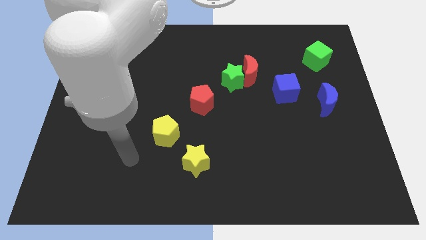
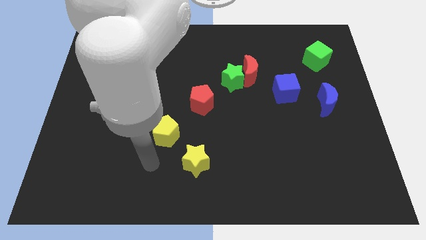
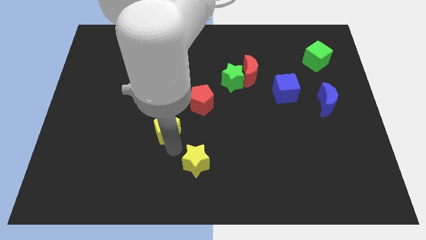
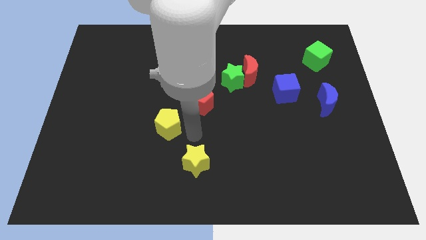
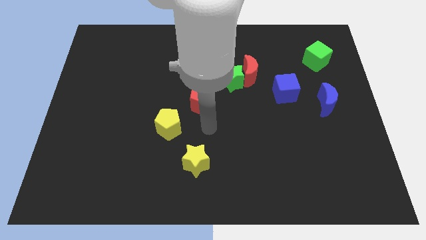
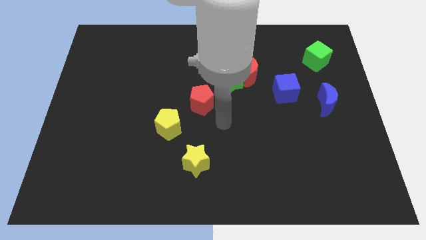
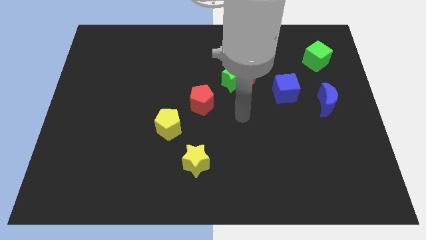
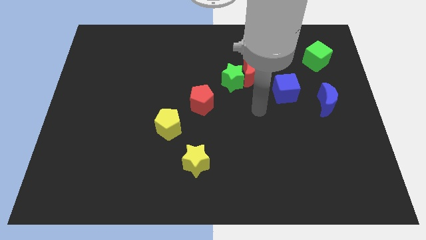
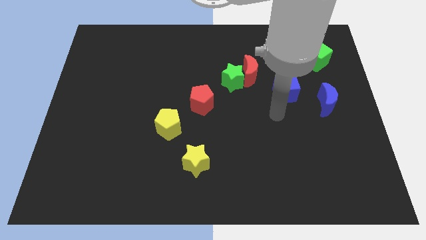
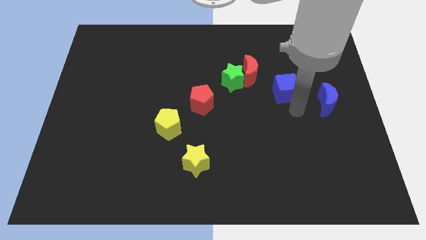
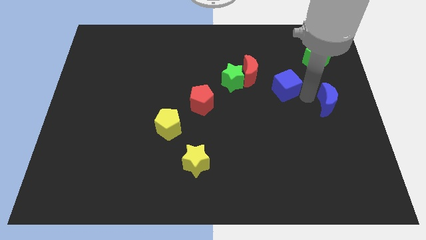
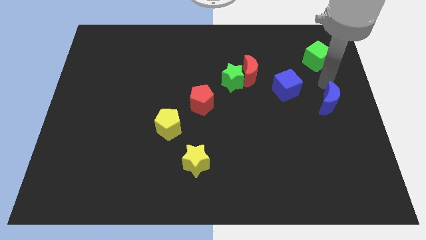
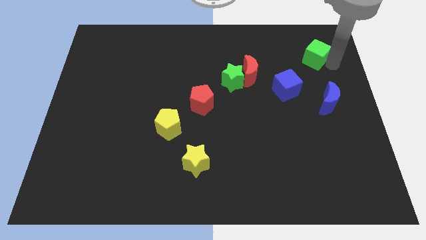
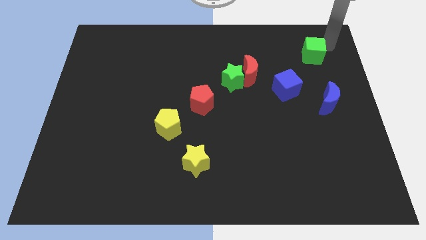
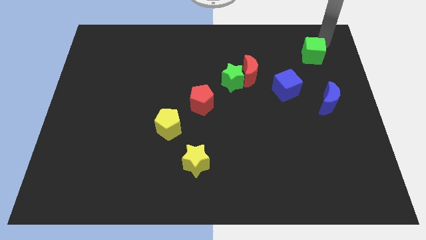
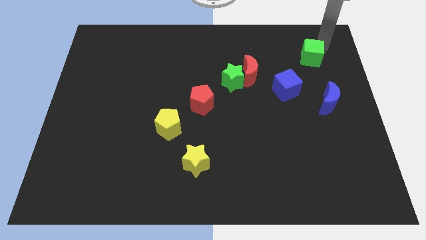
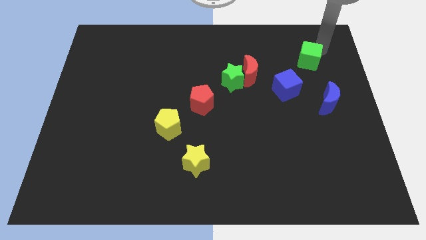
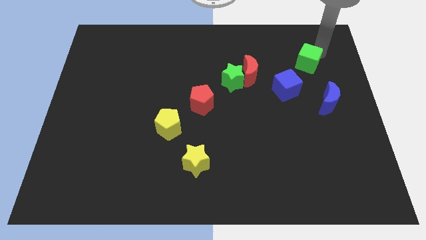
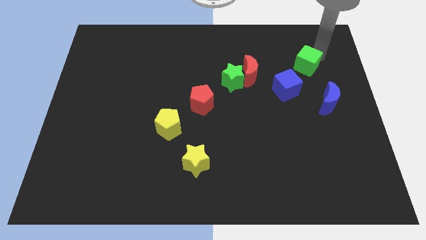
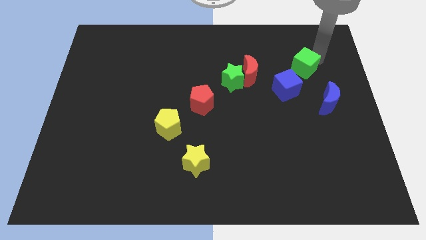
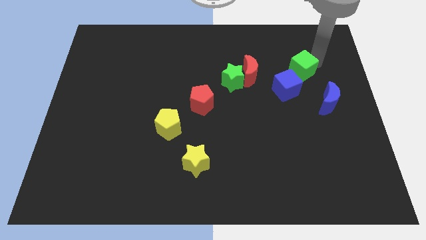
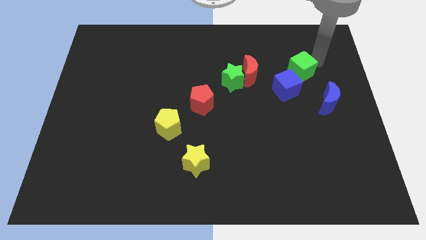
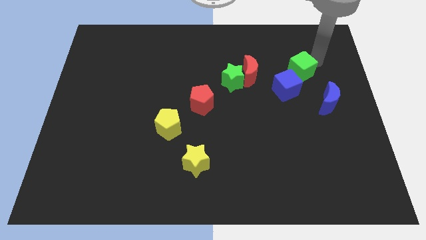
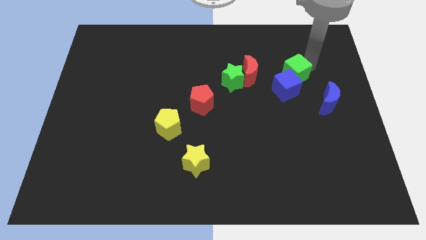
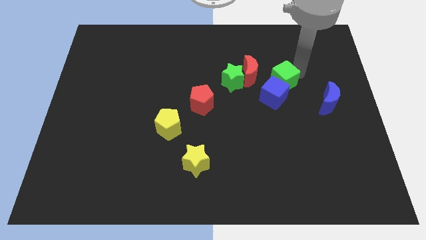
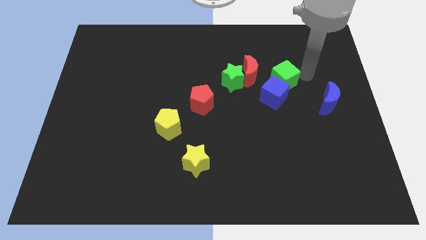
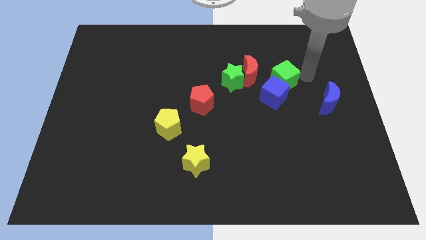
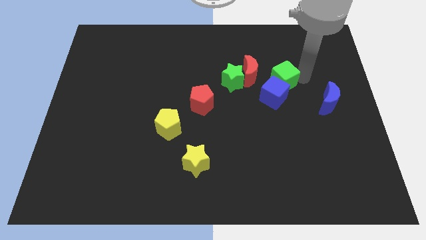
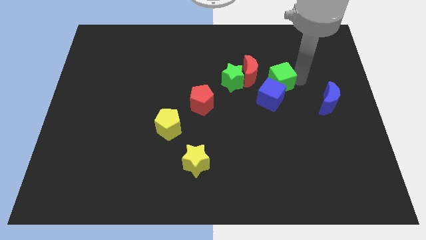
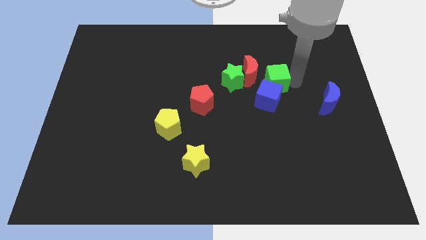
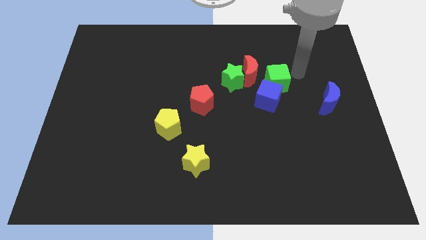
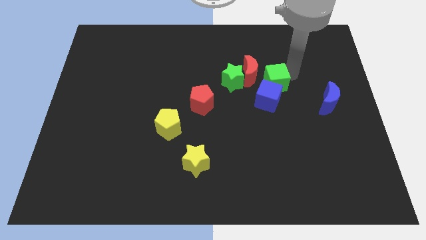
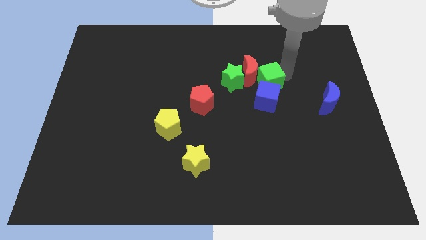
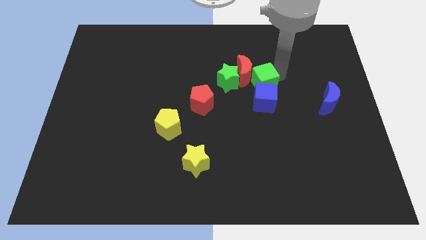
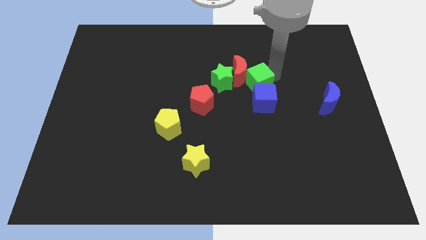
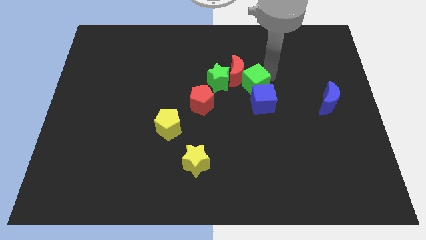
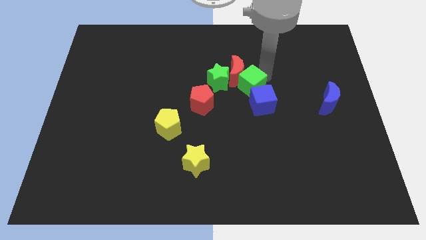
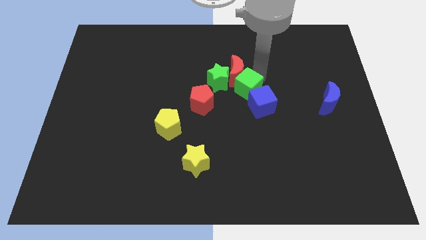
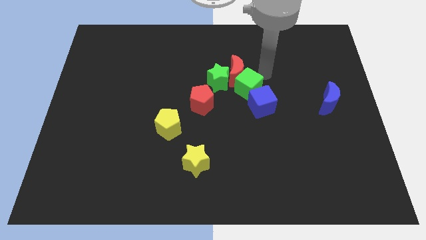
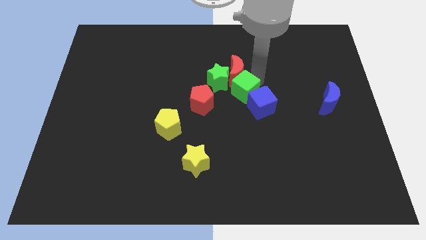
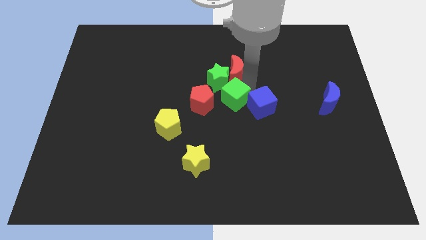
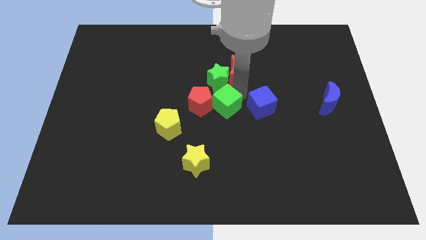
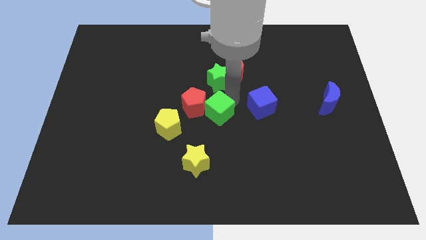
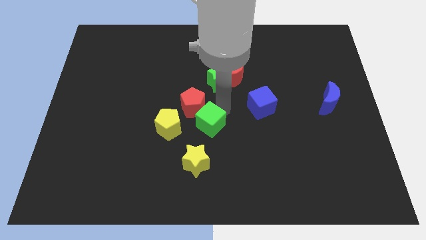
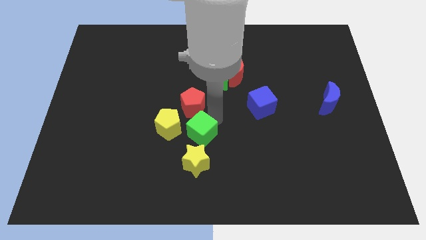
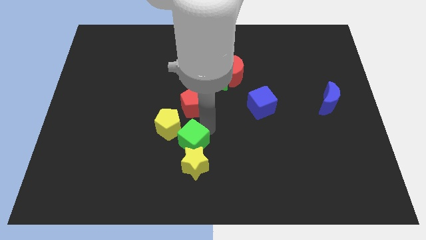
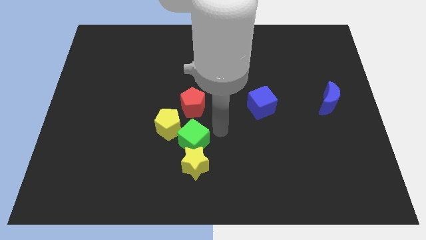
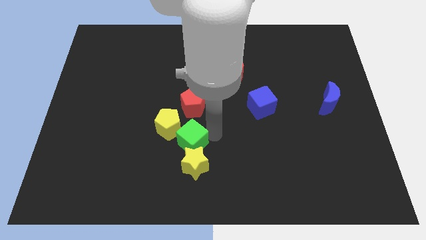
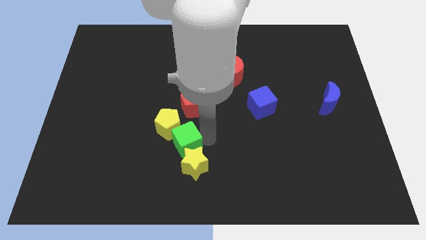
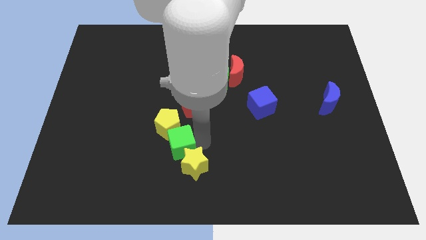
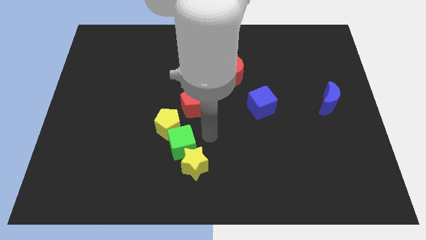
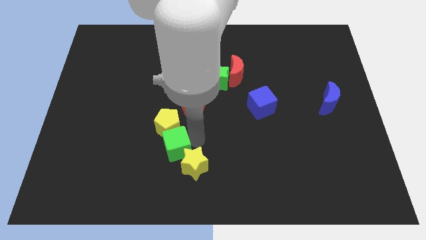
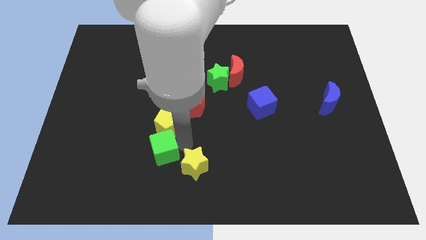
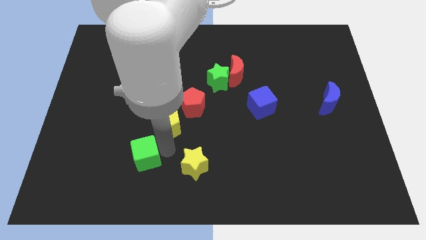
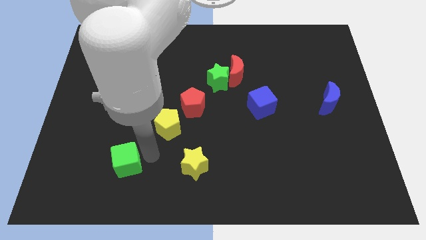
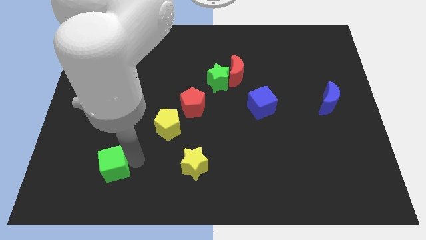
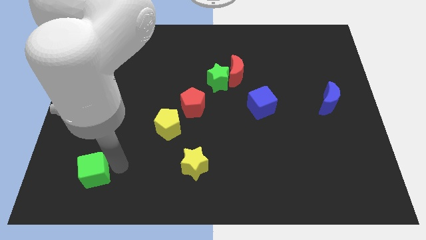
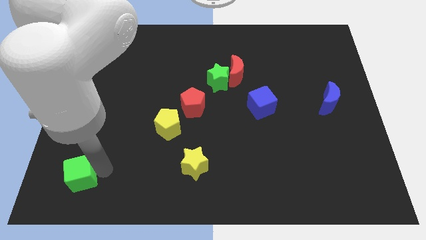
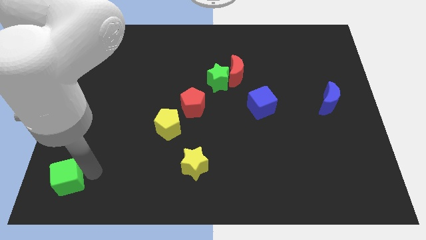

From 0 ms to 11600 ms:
move the green cube to the bottom left corner

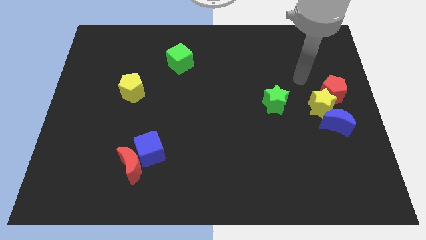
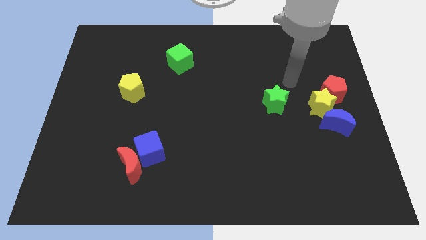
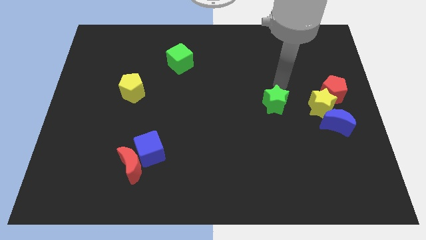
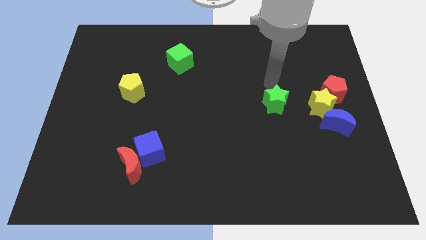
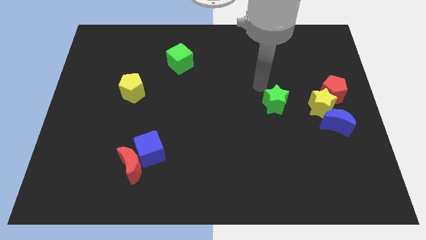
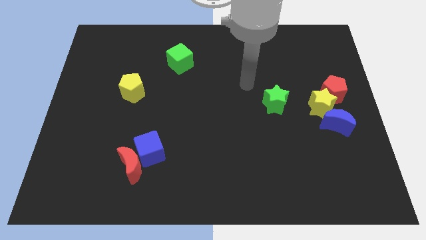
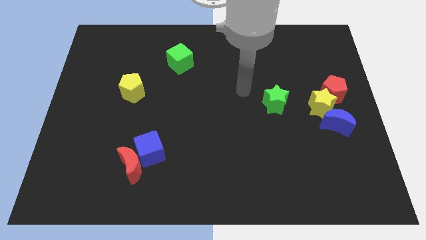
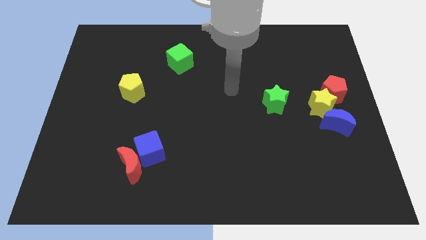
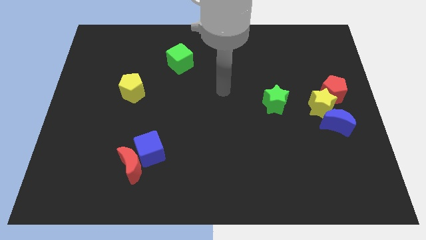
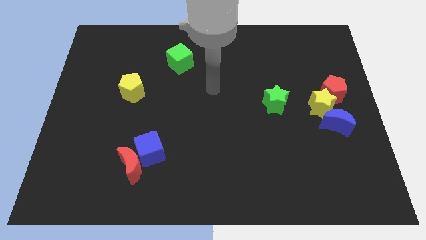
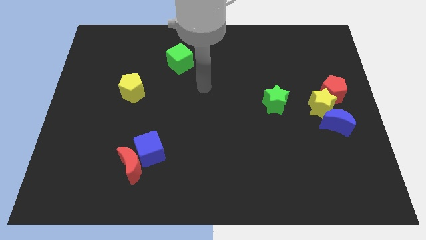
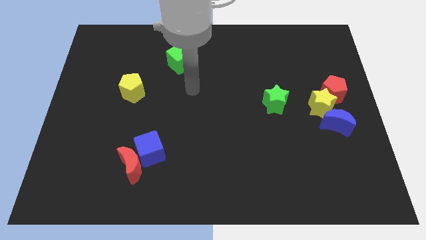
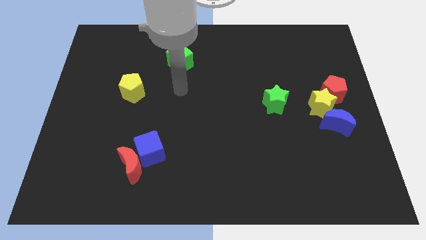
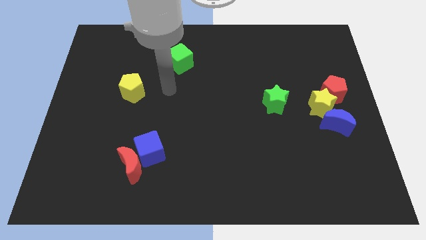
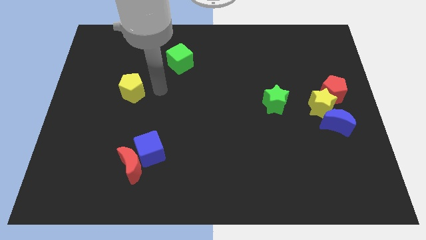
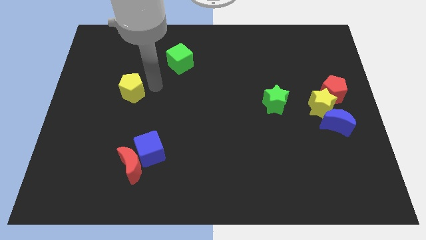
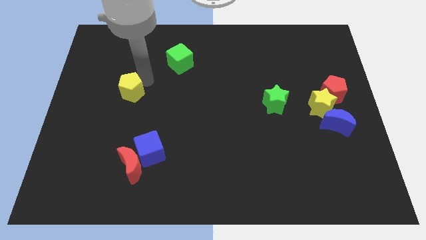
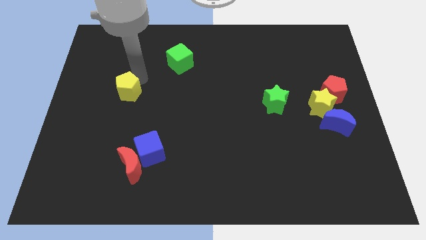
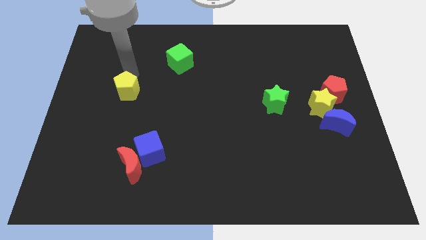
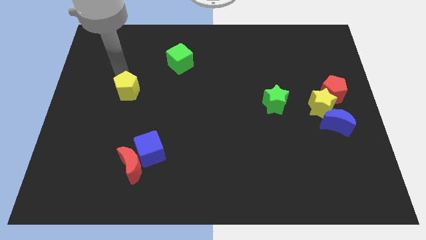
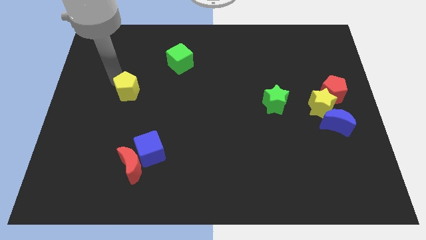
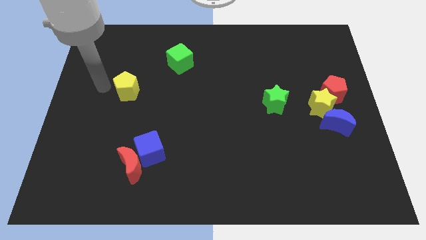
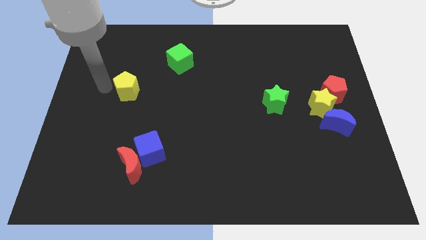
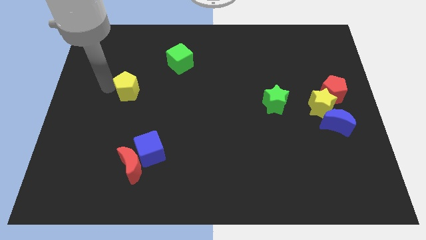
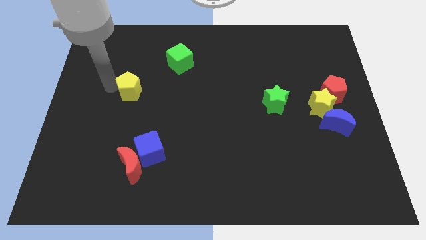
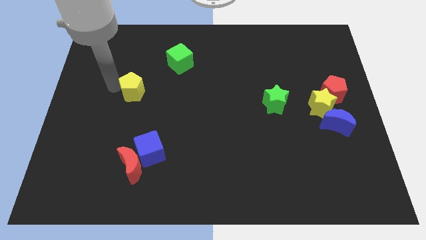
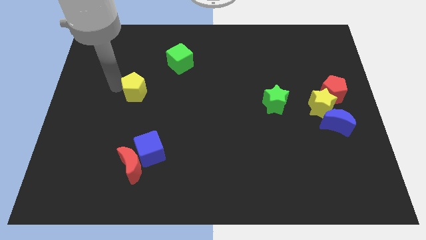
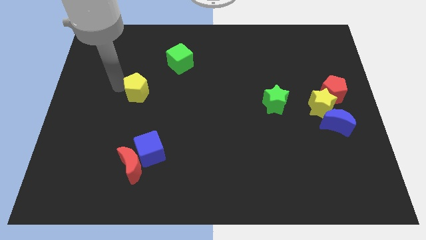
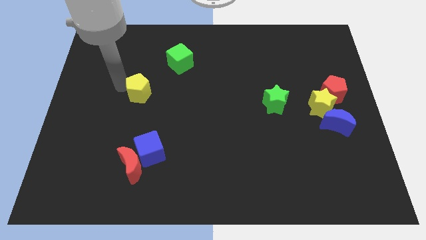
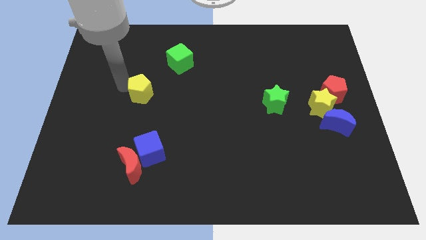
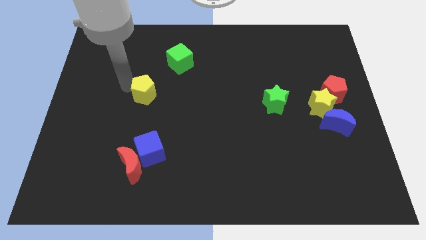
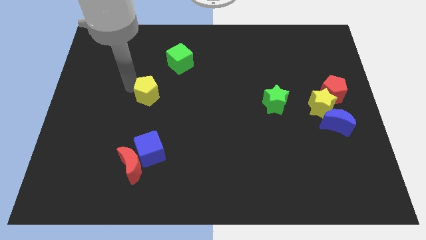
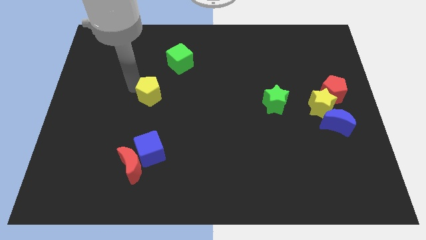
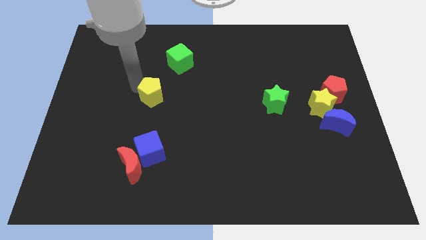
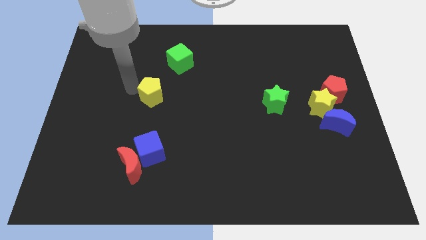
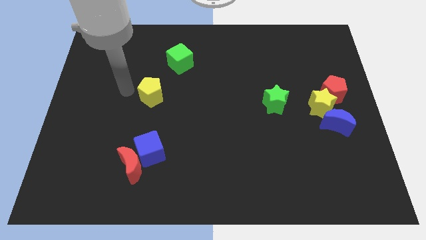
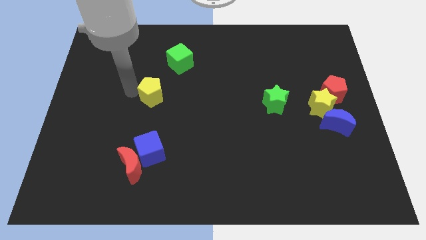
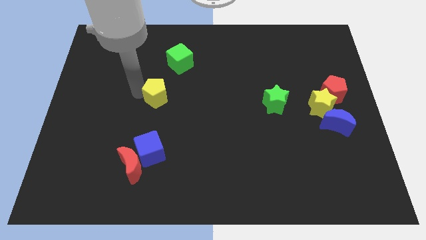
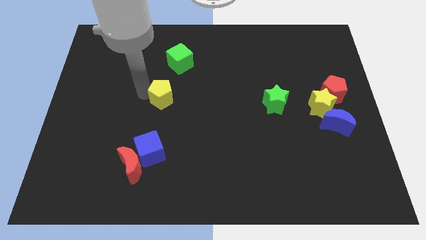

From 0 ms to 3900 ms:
put the yellow pentagon to the middle
